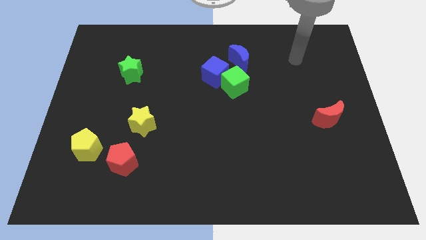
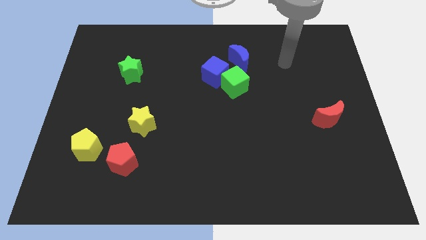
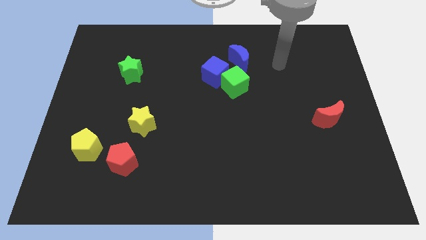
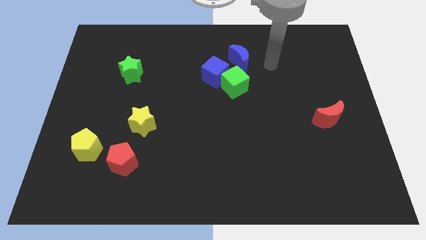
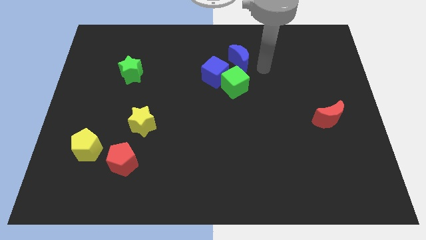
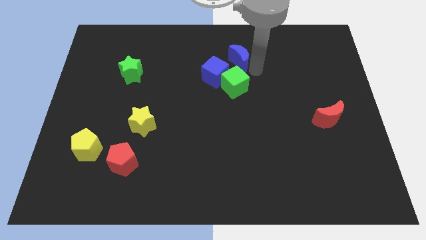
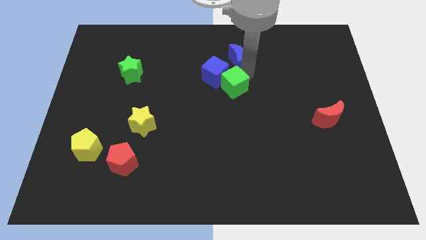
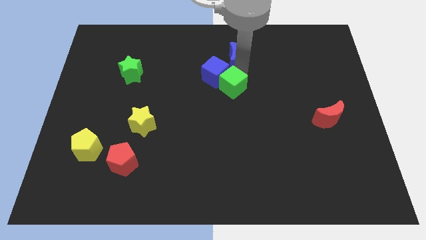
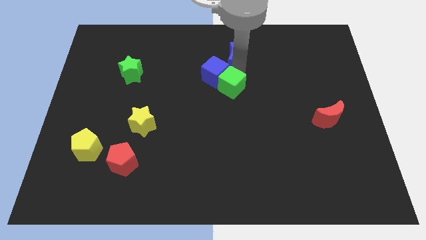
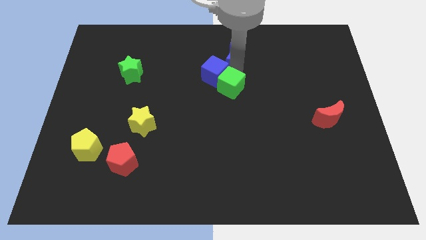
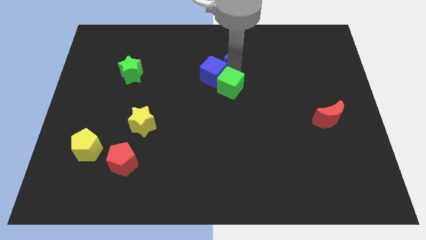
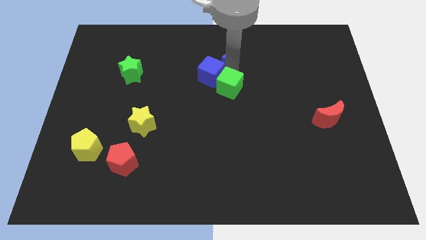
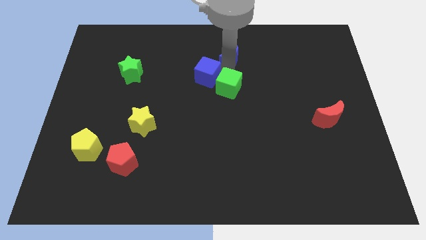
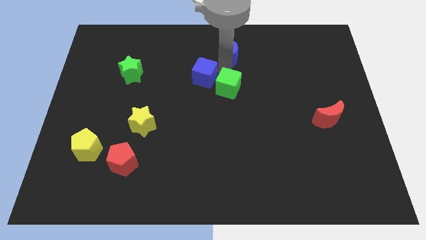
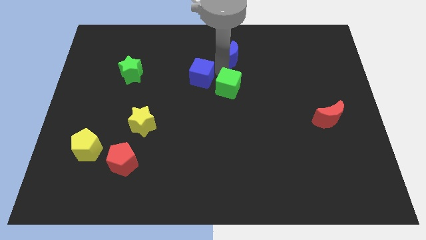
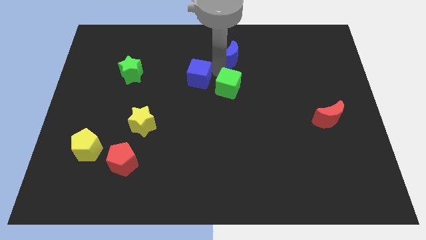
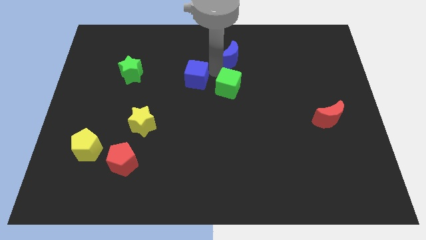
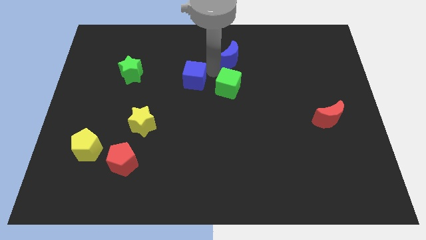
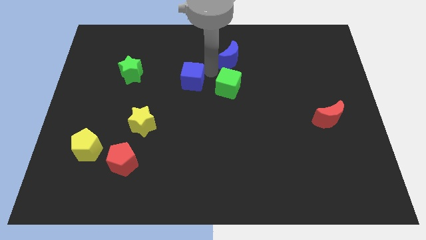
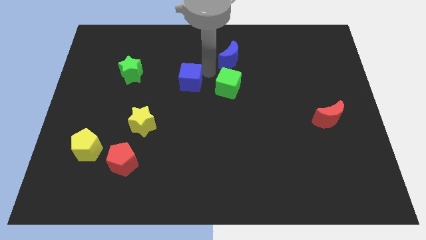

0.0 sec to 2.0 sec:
separate the blue cube from the green cube and blue moon

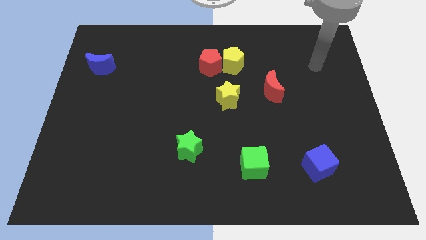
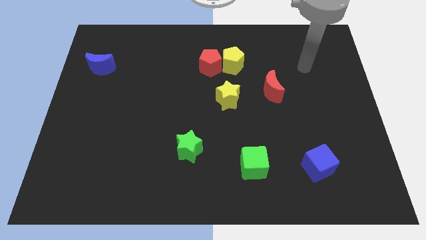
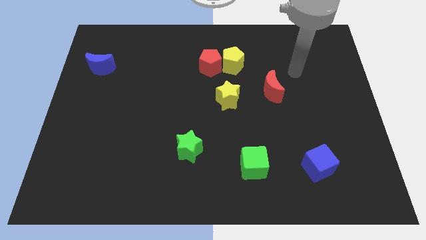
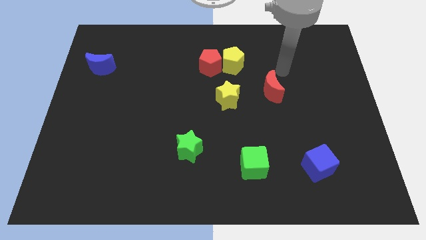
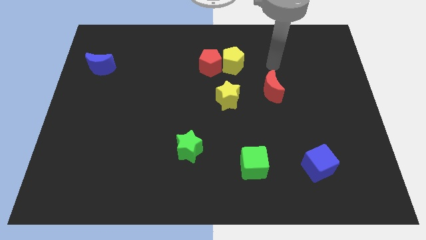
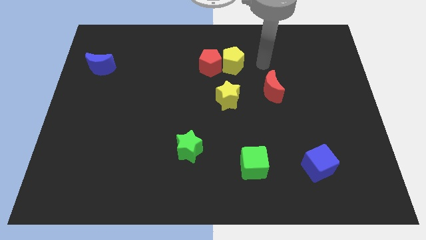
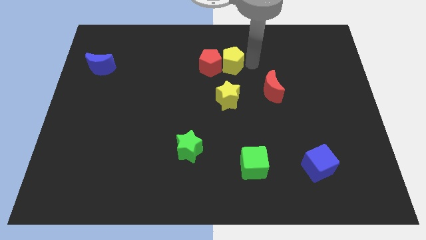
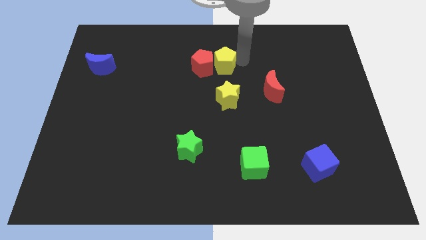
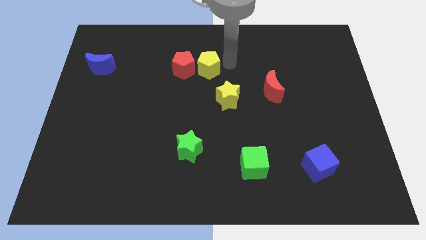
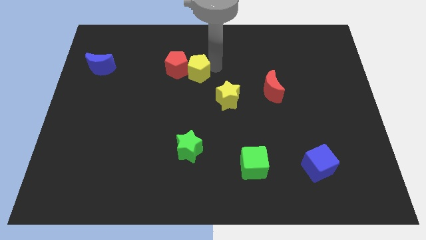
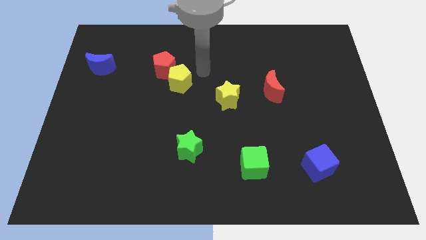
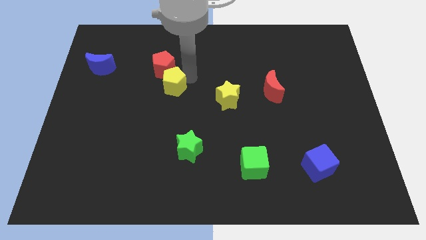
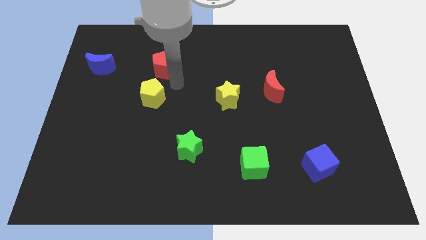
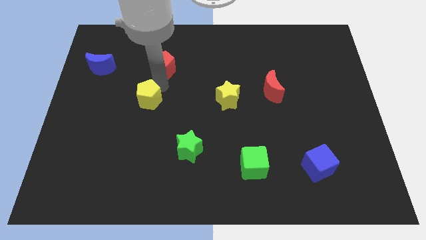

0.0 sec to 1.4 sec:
move the red pentagon away from the yellow pentagon

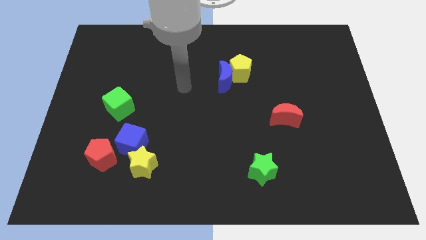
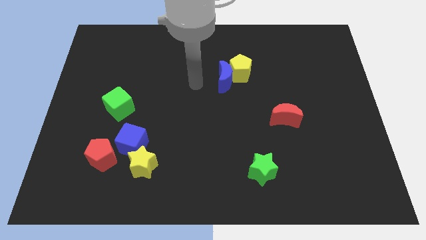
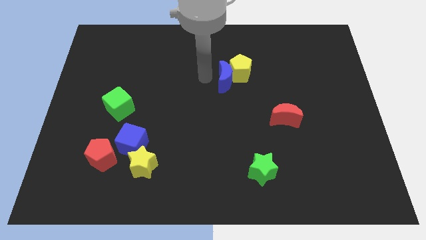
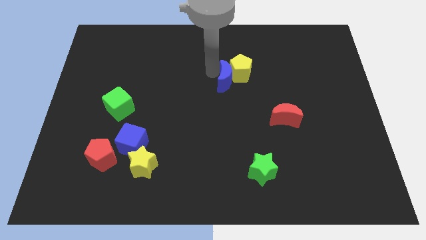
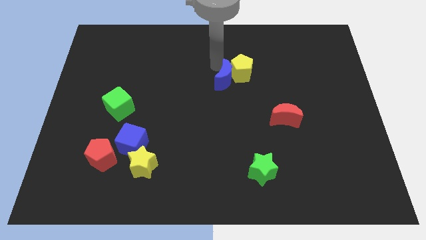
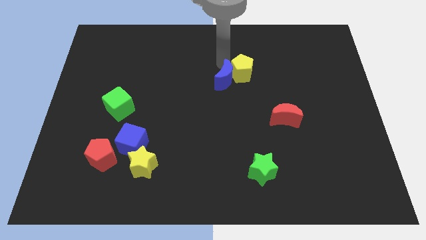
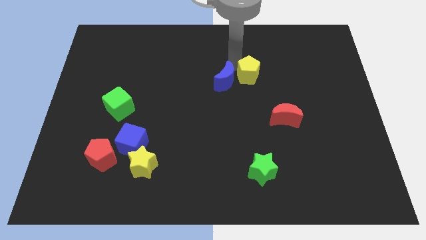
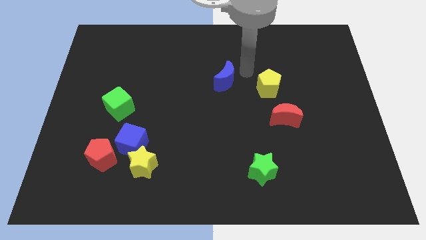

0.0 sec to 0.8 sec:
separate the blue moon from the yellow pentagon

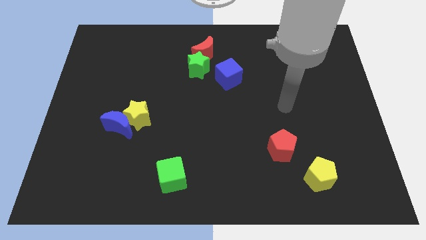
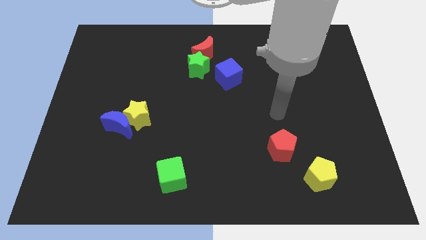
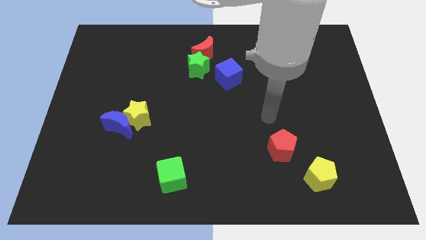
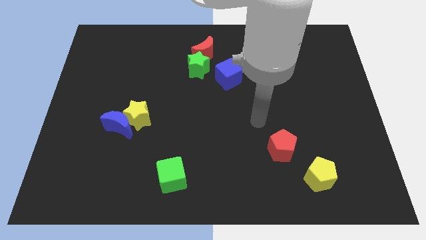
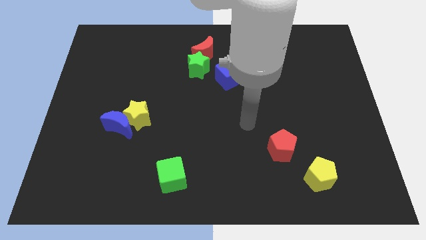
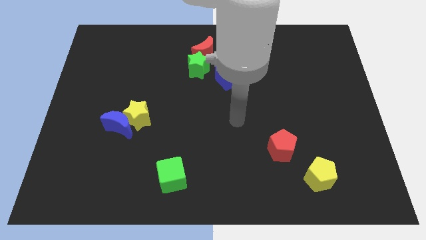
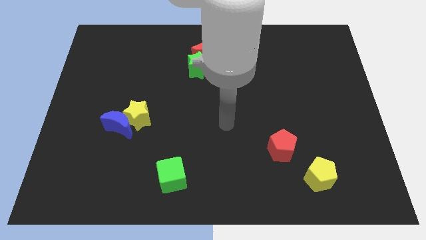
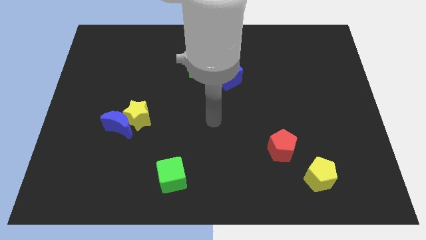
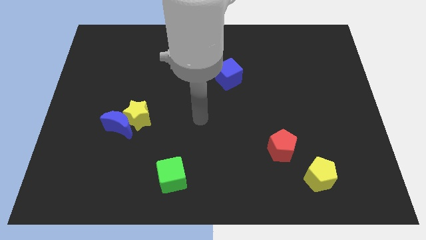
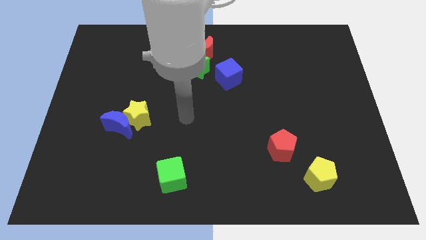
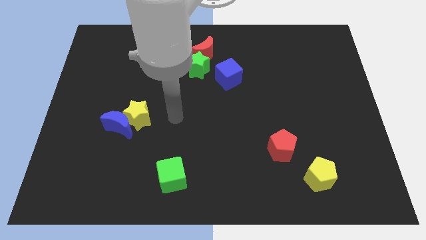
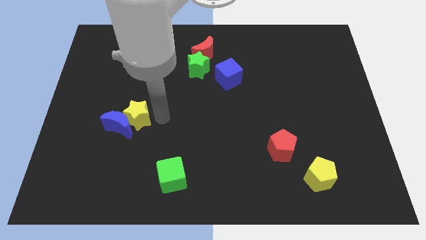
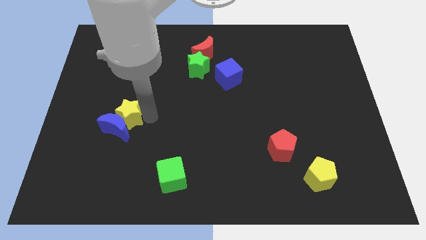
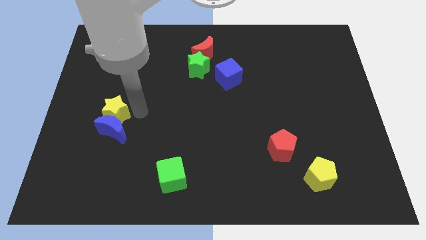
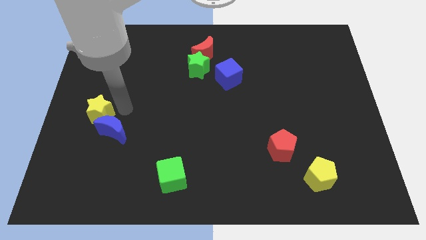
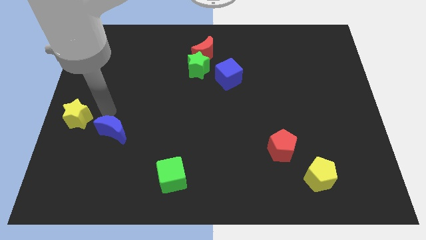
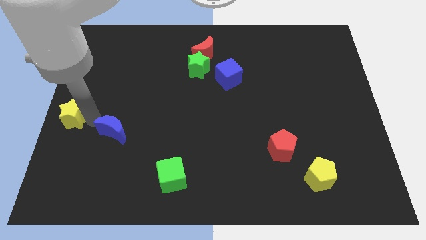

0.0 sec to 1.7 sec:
pull the blue moon apart from the yellow star

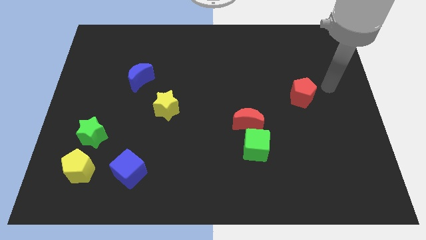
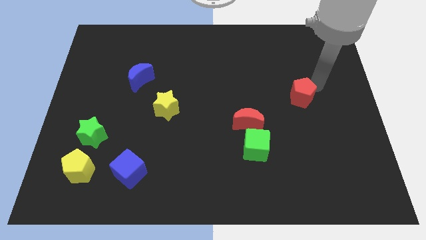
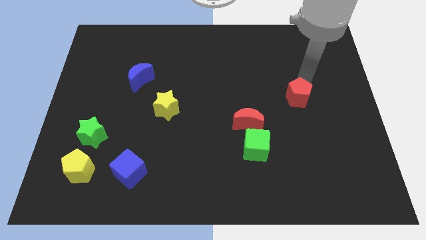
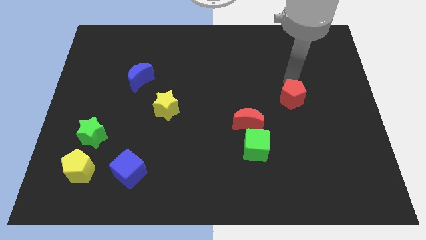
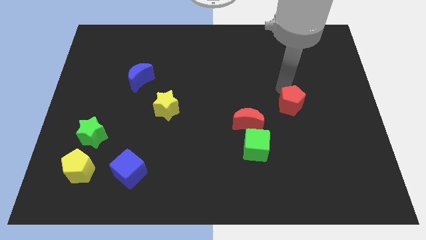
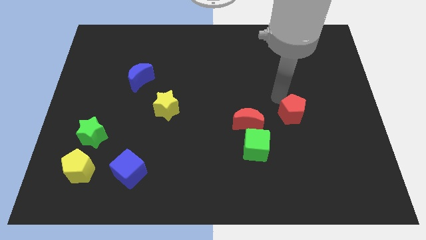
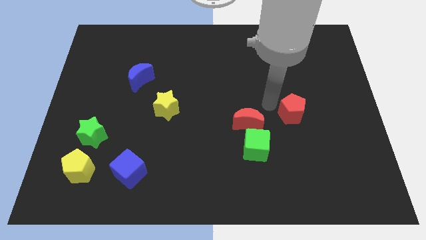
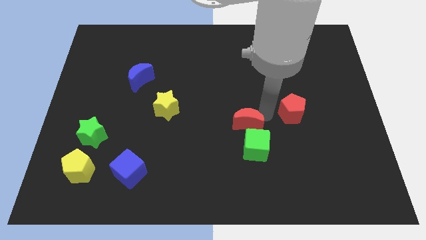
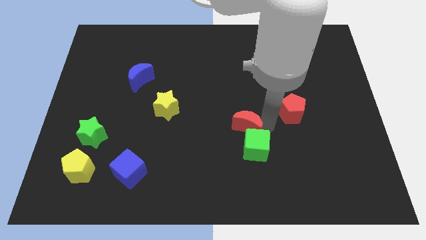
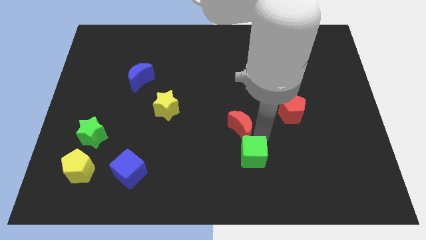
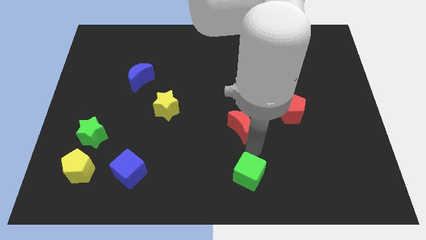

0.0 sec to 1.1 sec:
pull the red moon apart from the green cube

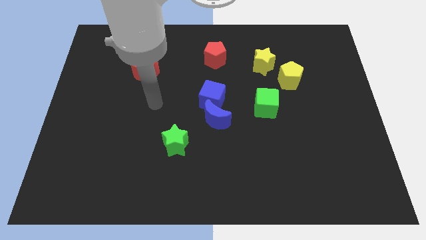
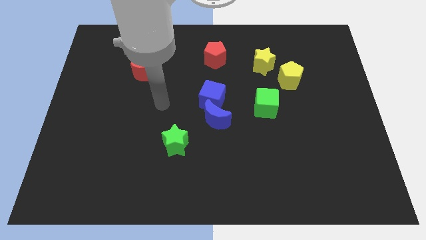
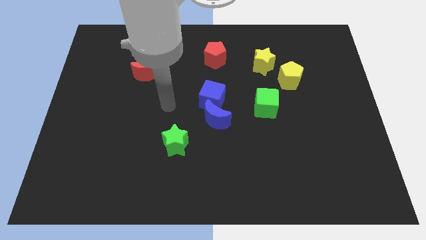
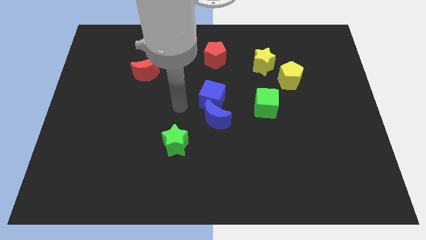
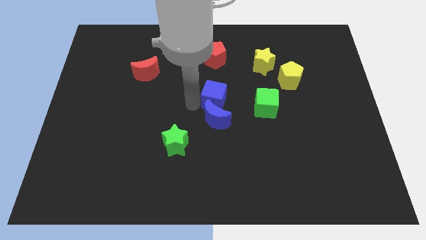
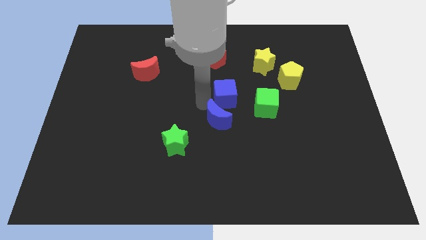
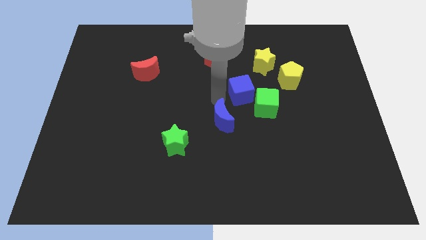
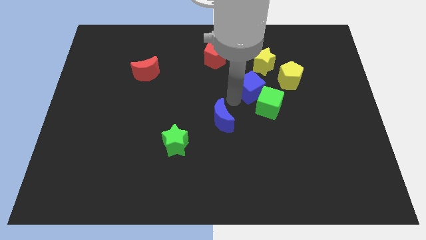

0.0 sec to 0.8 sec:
pull the blue moon apart from the blue cube

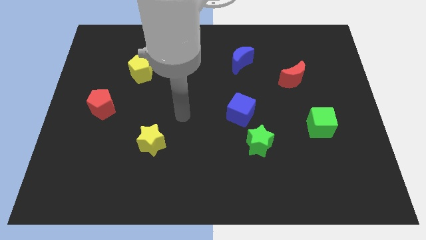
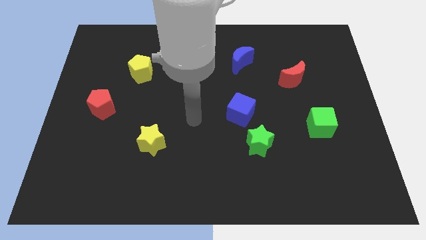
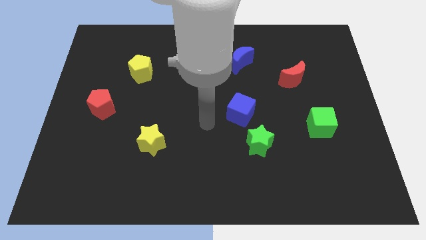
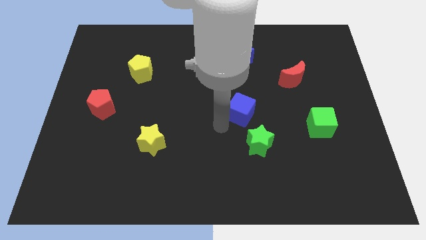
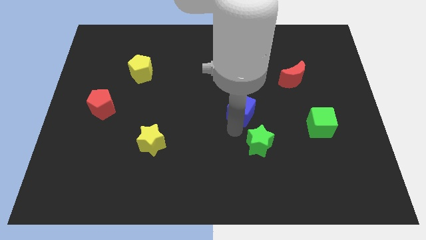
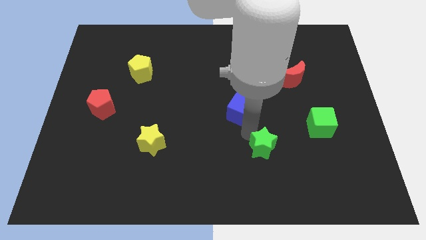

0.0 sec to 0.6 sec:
move the blue cube away from the green star

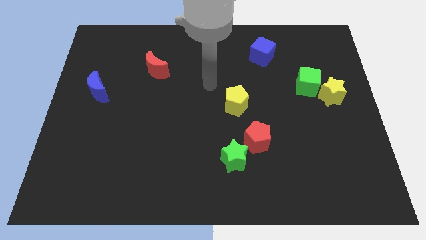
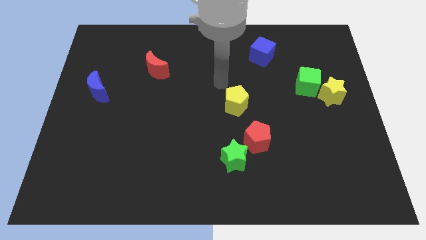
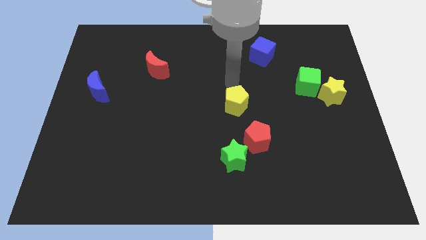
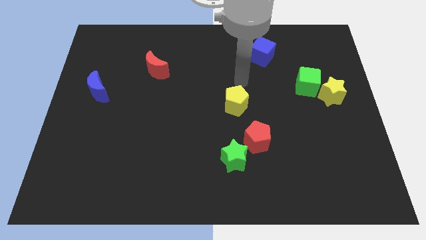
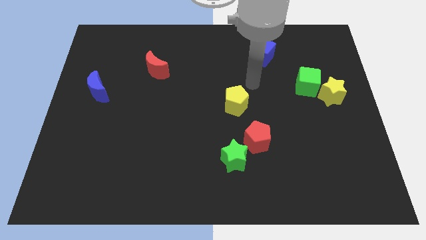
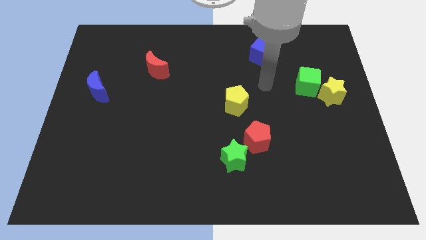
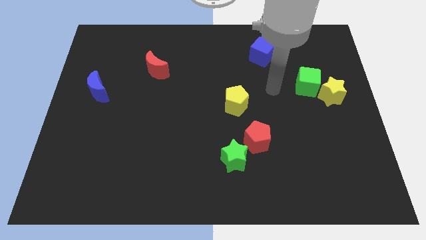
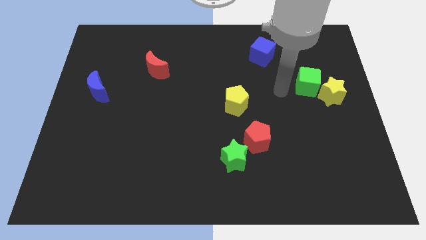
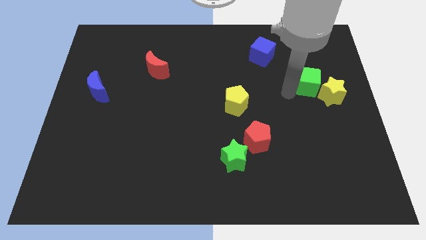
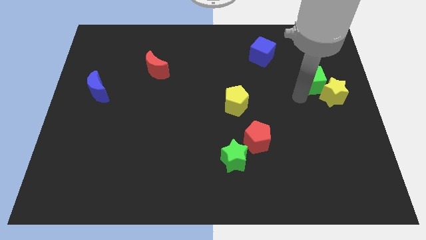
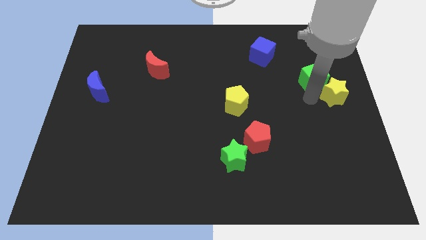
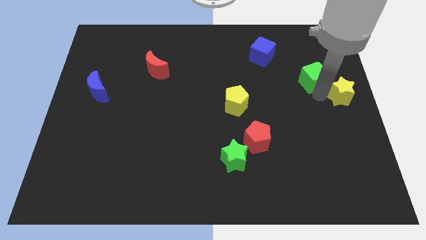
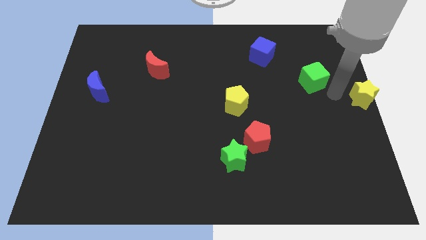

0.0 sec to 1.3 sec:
move the green cube away from the yellow star
